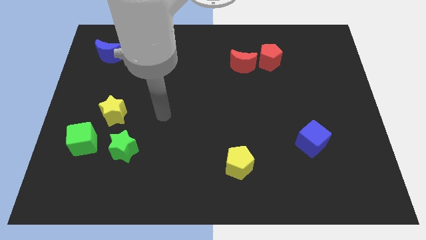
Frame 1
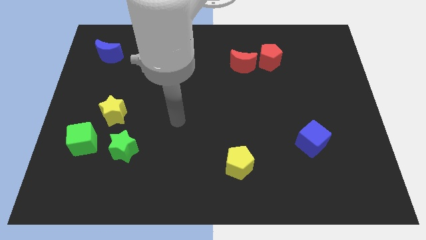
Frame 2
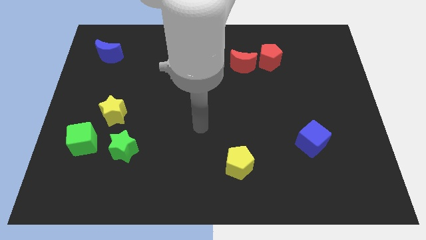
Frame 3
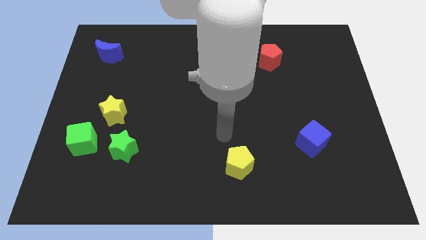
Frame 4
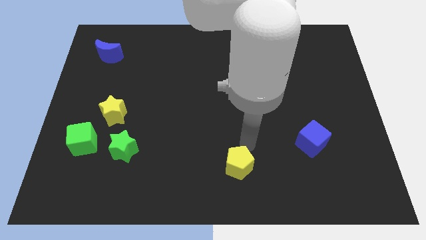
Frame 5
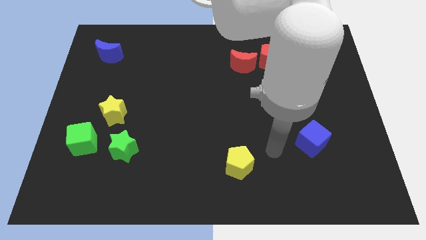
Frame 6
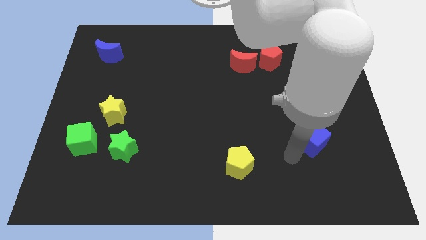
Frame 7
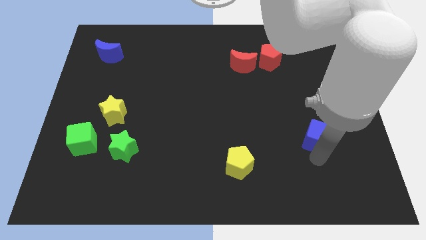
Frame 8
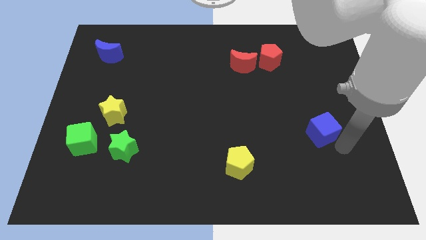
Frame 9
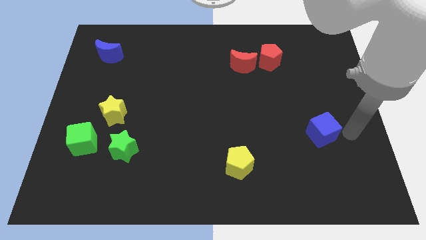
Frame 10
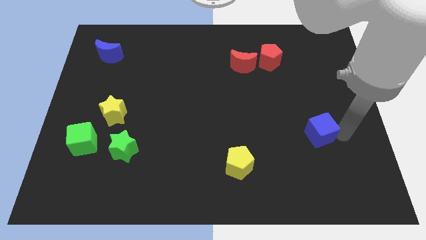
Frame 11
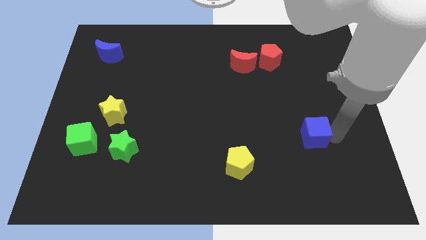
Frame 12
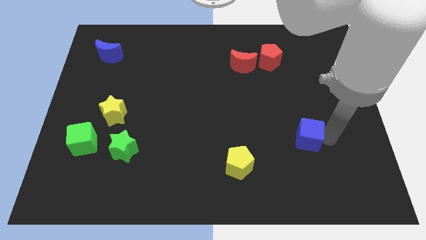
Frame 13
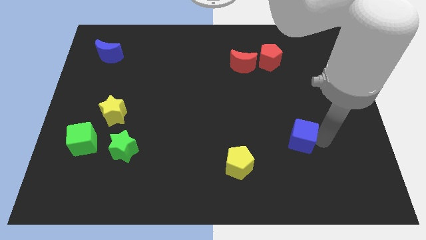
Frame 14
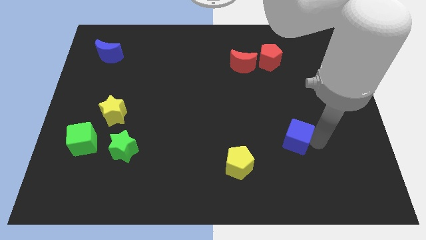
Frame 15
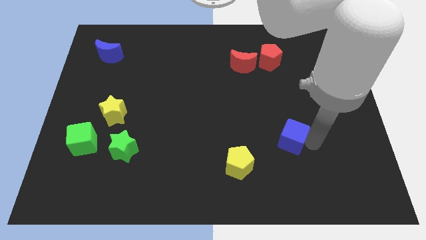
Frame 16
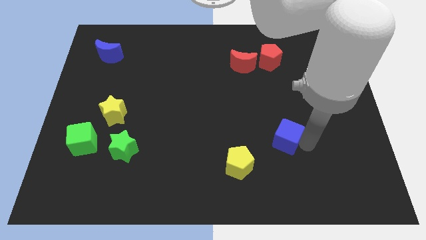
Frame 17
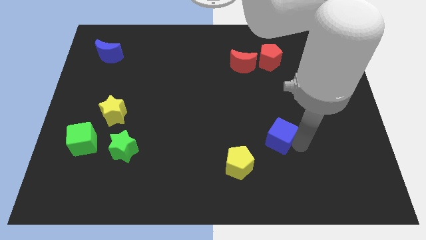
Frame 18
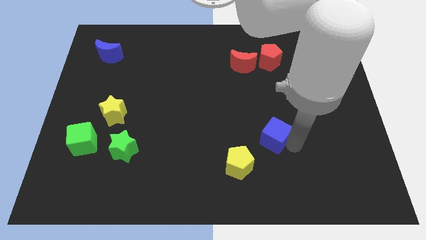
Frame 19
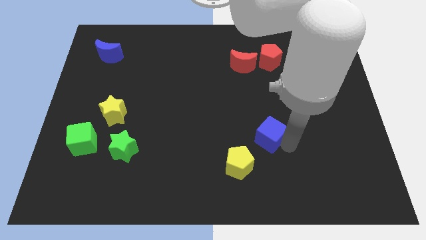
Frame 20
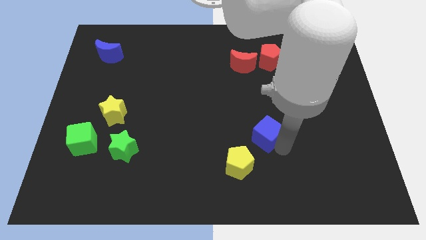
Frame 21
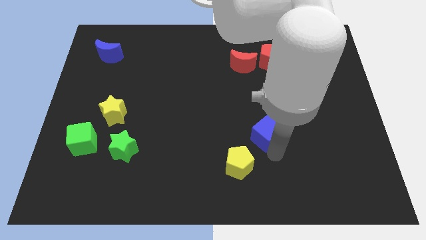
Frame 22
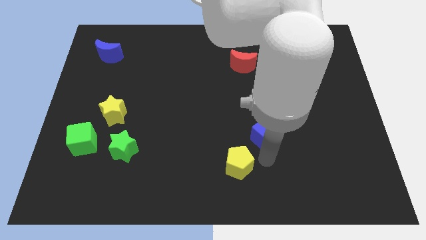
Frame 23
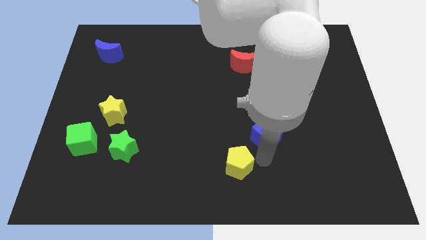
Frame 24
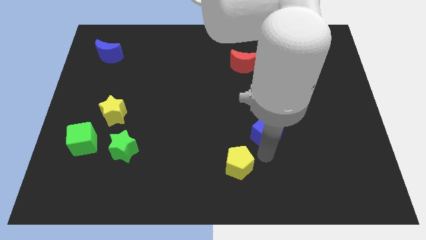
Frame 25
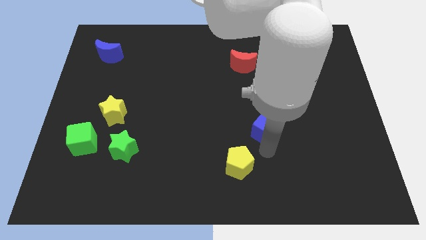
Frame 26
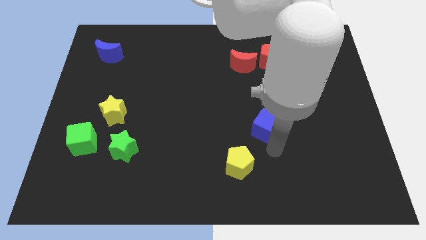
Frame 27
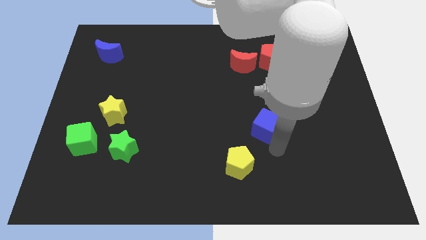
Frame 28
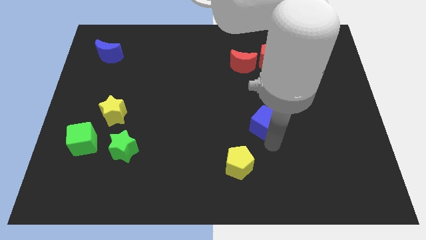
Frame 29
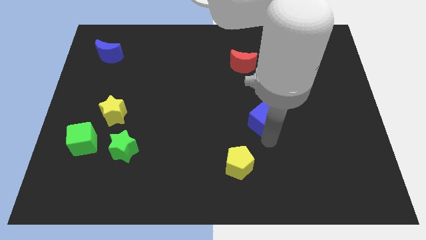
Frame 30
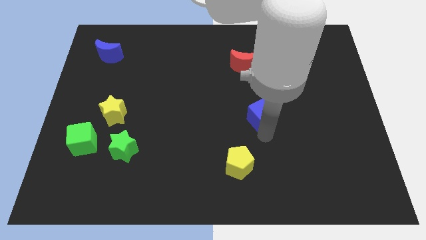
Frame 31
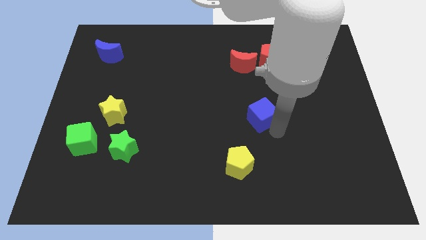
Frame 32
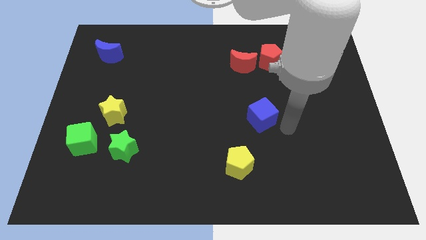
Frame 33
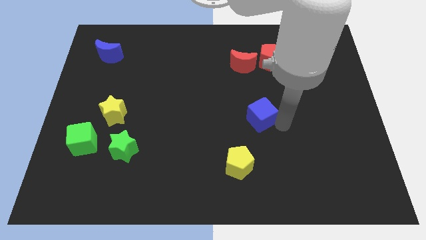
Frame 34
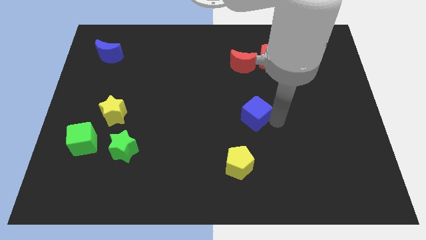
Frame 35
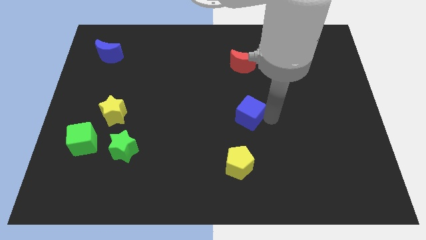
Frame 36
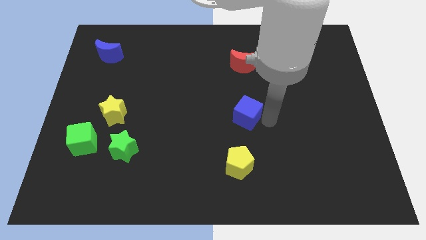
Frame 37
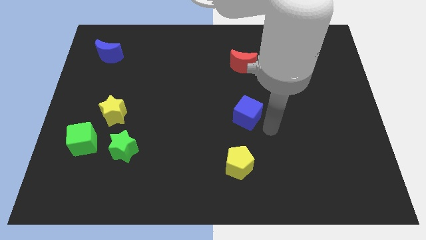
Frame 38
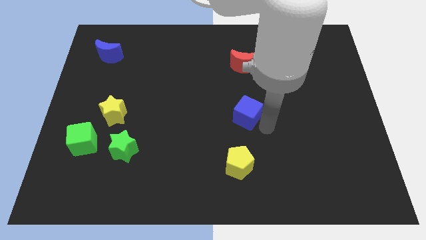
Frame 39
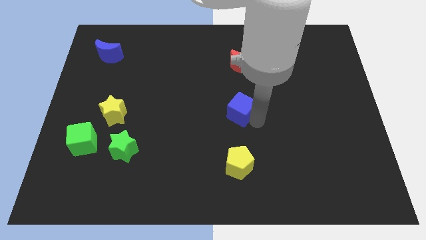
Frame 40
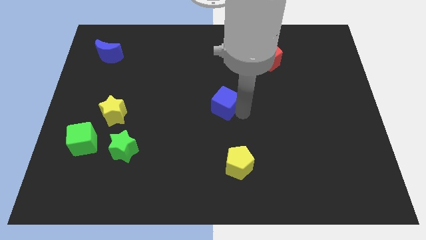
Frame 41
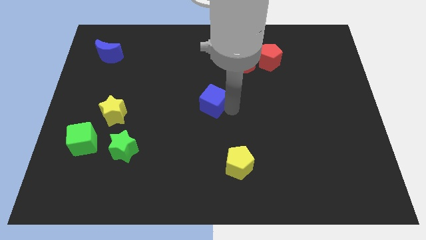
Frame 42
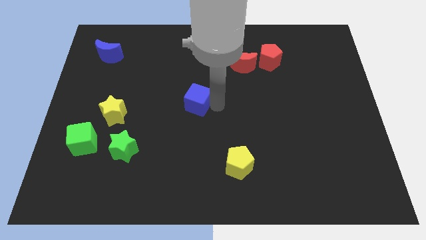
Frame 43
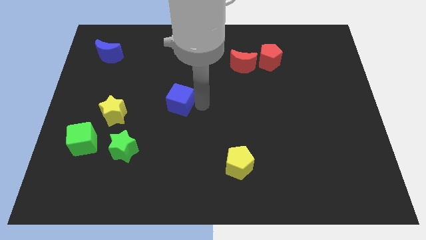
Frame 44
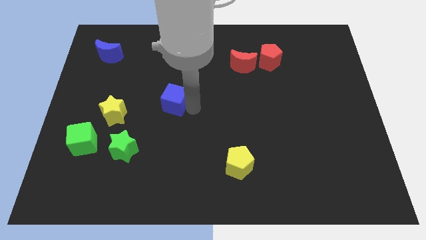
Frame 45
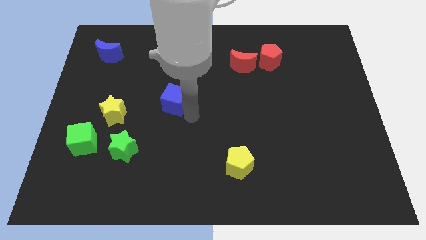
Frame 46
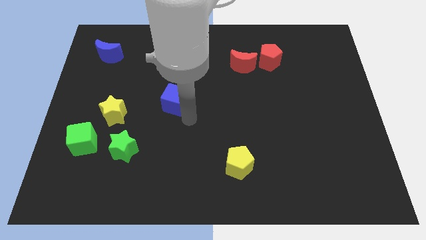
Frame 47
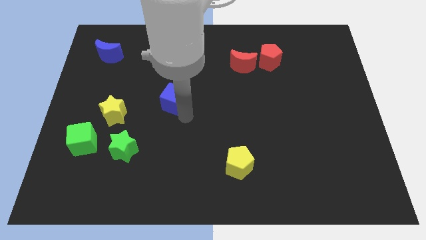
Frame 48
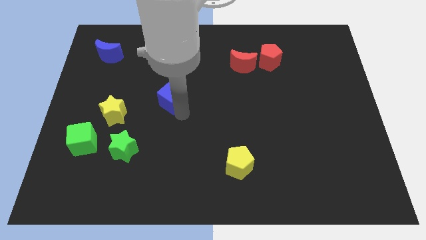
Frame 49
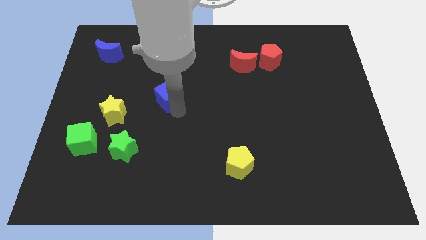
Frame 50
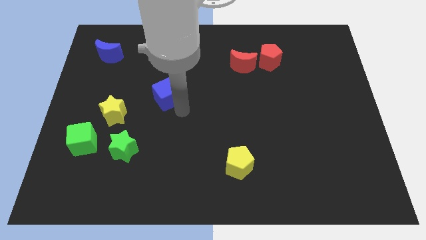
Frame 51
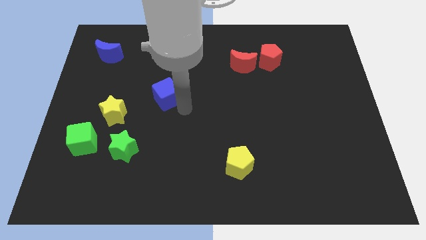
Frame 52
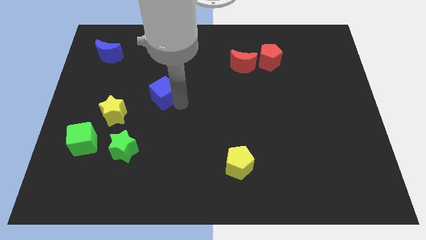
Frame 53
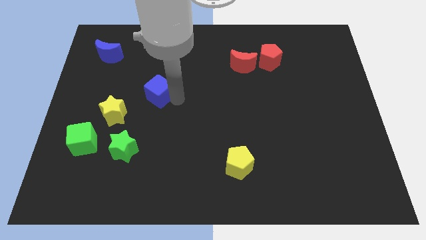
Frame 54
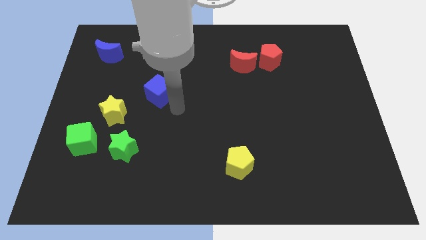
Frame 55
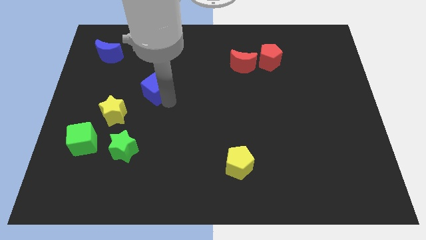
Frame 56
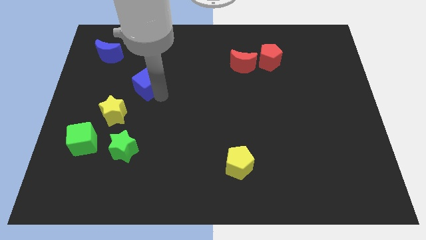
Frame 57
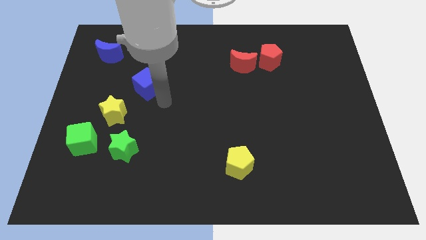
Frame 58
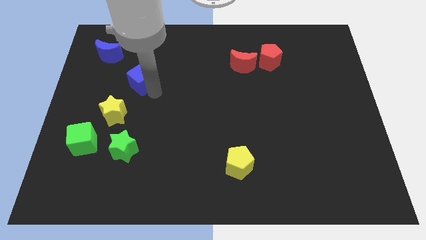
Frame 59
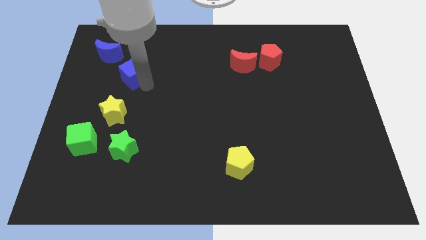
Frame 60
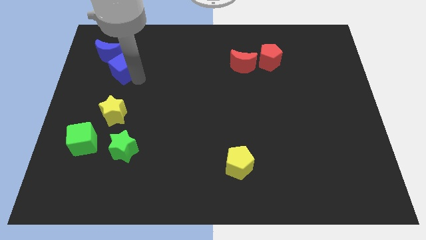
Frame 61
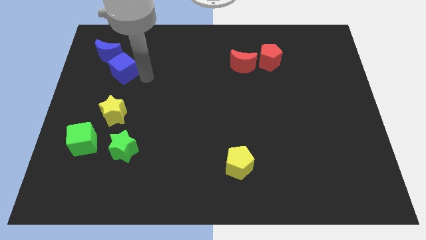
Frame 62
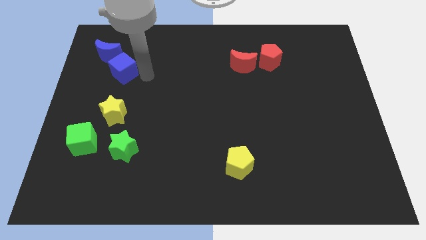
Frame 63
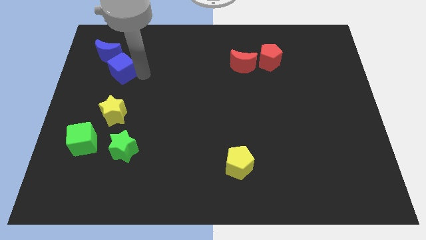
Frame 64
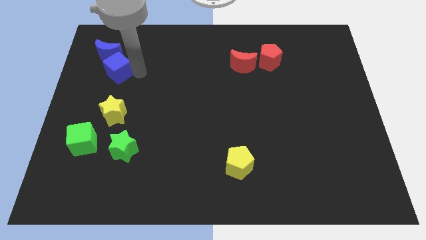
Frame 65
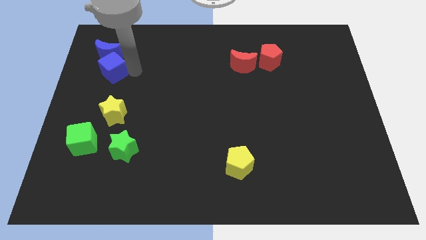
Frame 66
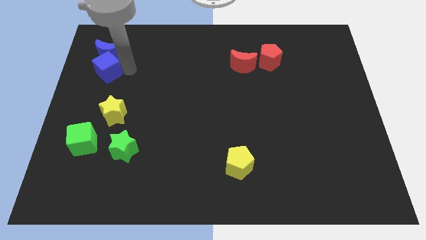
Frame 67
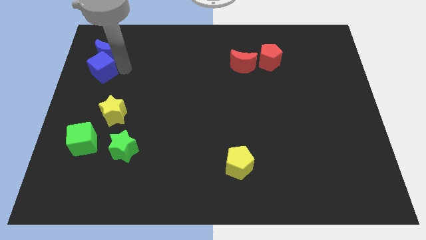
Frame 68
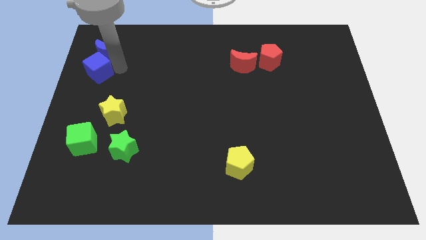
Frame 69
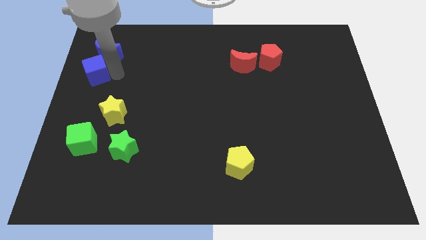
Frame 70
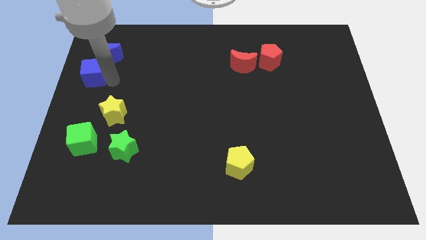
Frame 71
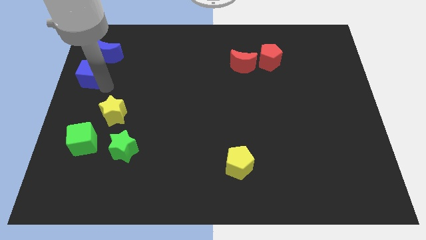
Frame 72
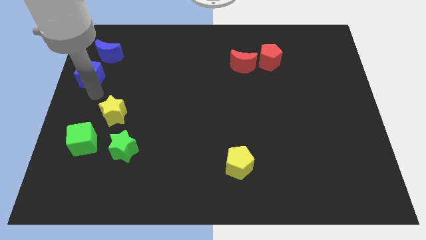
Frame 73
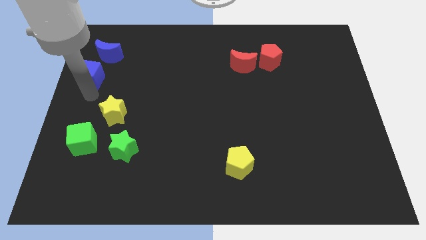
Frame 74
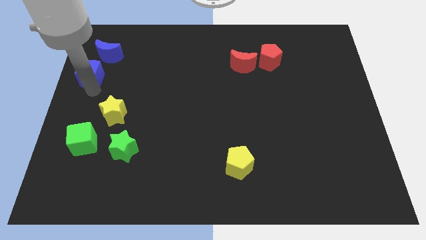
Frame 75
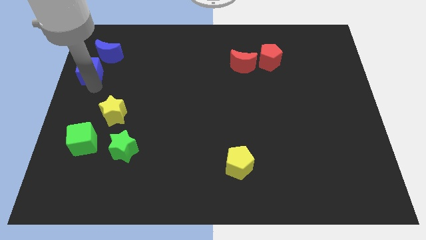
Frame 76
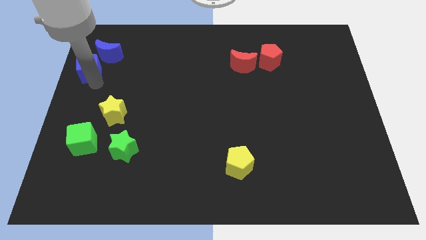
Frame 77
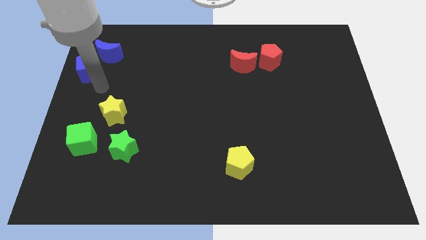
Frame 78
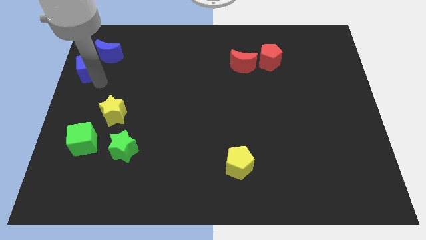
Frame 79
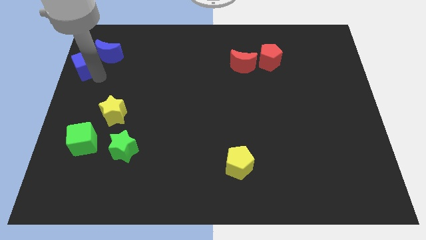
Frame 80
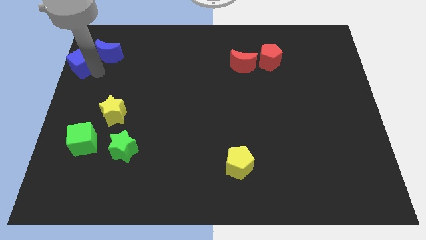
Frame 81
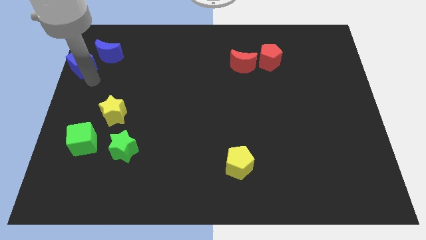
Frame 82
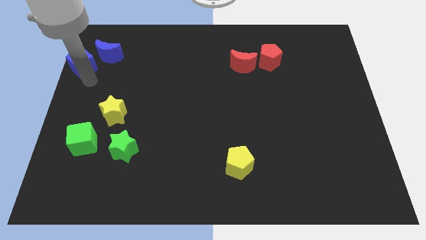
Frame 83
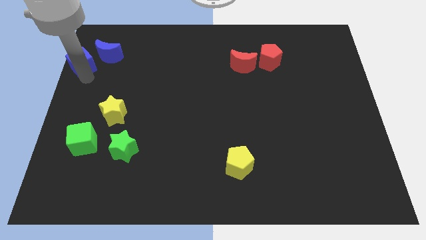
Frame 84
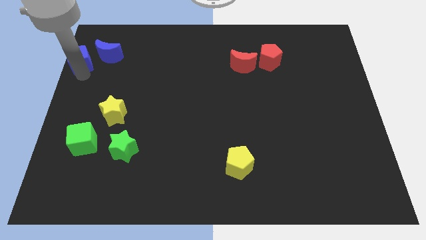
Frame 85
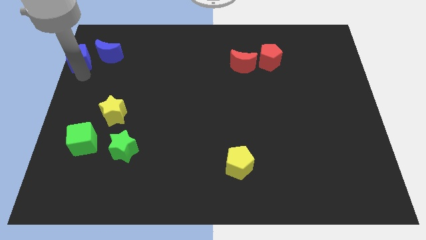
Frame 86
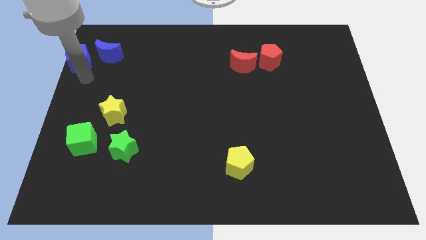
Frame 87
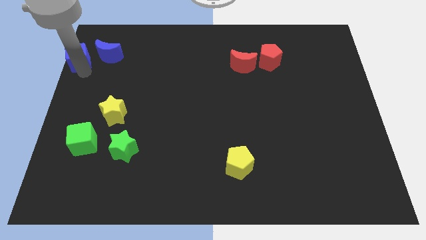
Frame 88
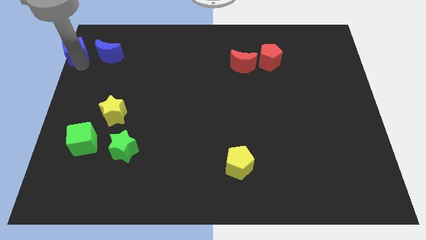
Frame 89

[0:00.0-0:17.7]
move the blue cube to the top left
